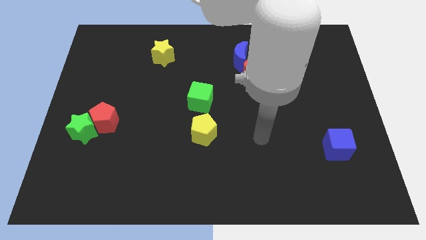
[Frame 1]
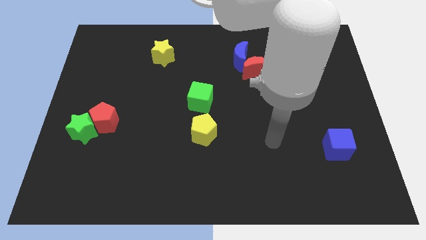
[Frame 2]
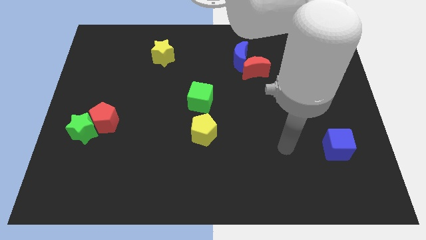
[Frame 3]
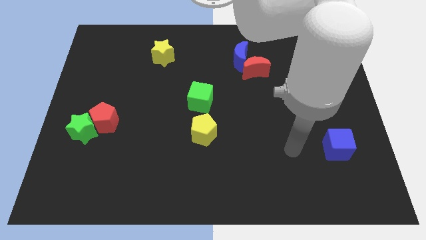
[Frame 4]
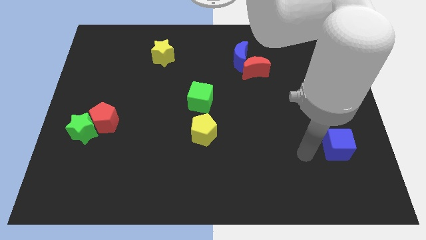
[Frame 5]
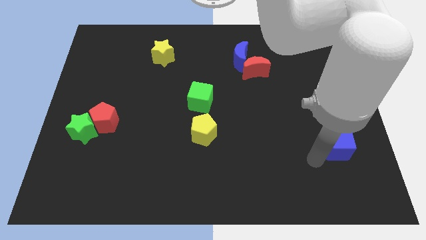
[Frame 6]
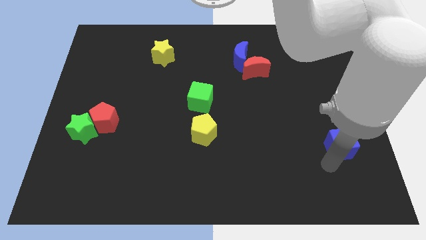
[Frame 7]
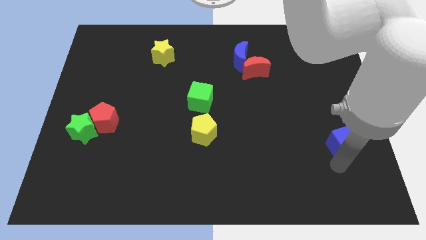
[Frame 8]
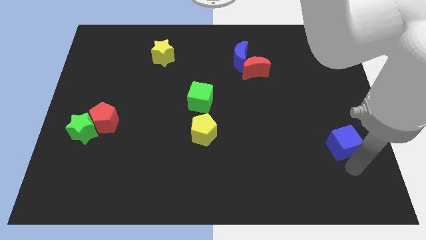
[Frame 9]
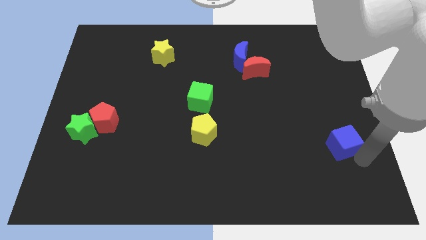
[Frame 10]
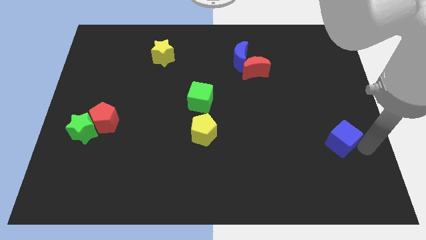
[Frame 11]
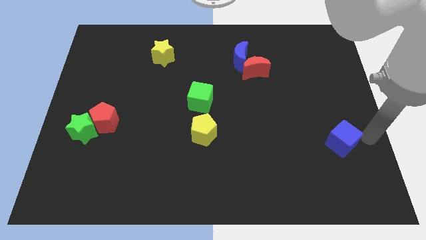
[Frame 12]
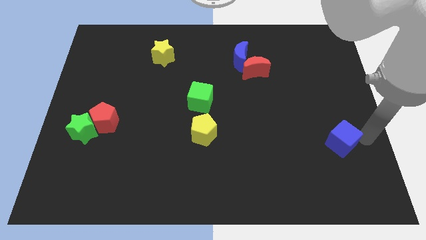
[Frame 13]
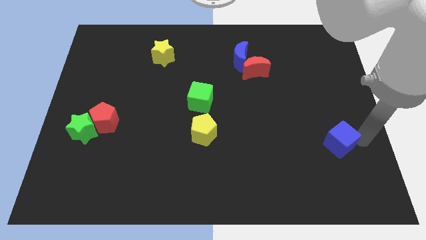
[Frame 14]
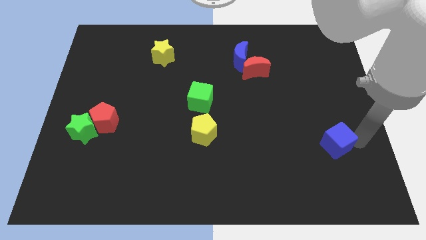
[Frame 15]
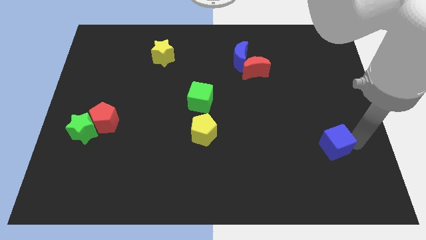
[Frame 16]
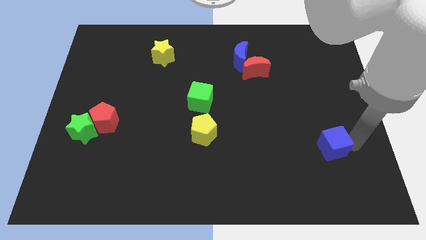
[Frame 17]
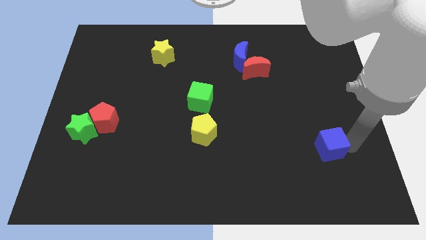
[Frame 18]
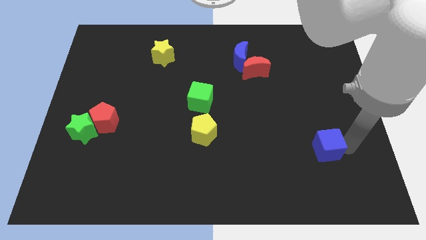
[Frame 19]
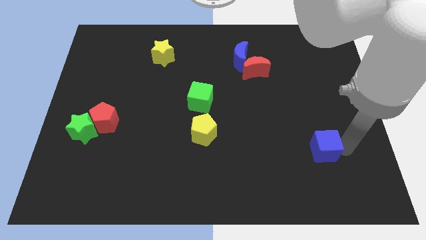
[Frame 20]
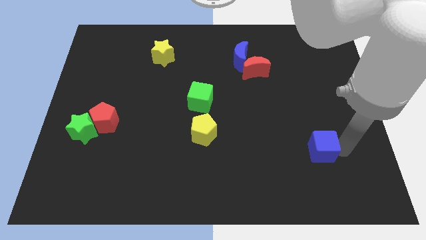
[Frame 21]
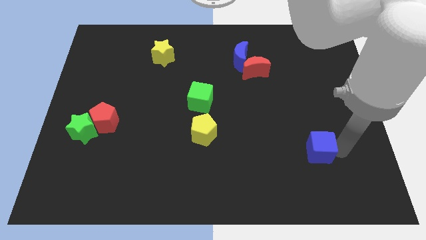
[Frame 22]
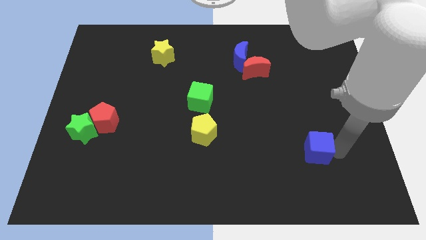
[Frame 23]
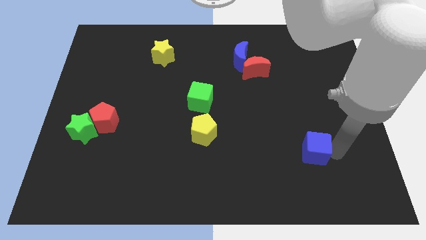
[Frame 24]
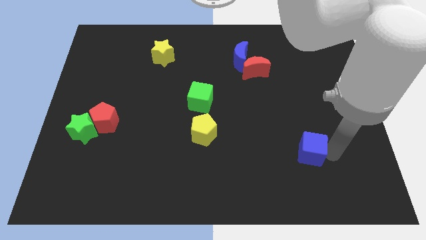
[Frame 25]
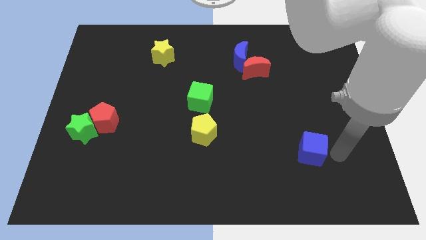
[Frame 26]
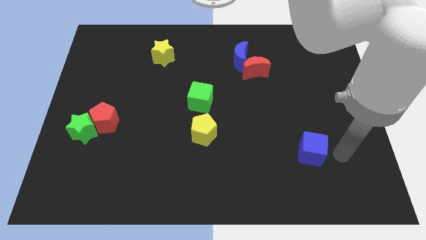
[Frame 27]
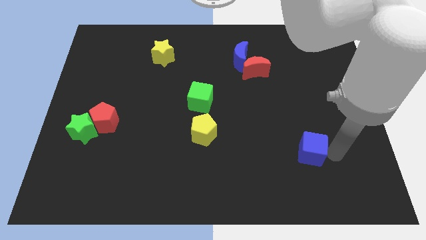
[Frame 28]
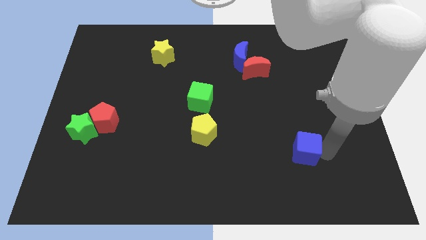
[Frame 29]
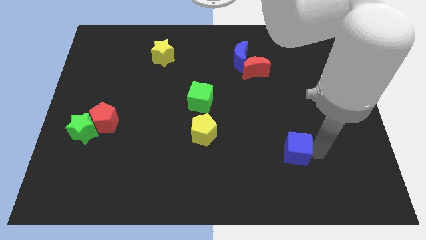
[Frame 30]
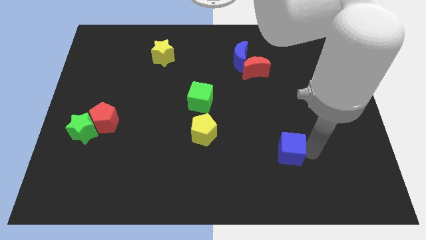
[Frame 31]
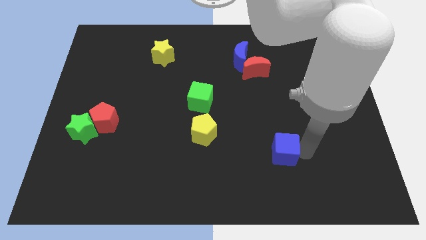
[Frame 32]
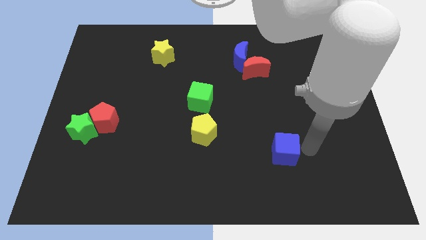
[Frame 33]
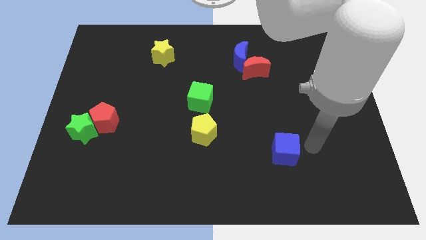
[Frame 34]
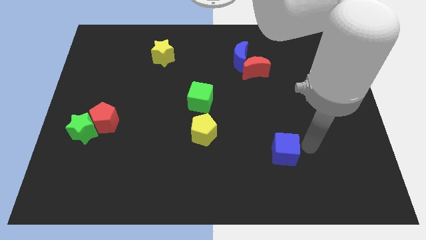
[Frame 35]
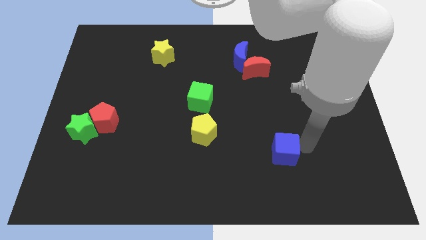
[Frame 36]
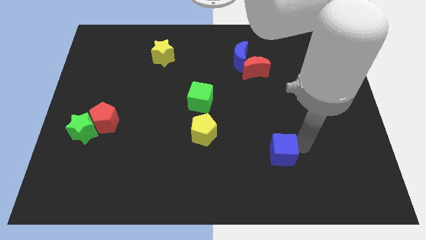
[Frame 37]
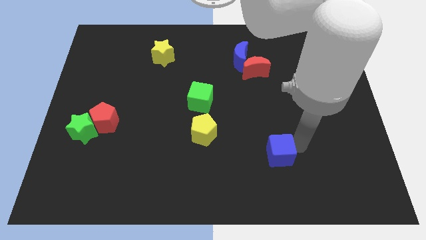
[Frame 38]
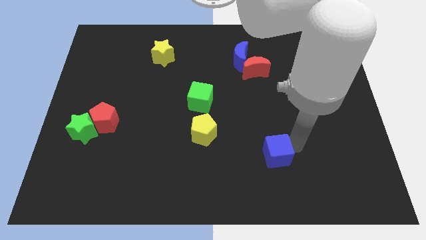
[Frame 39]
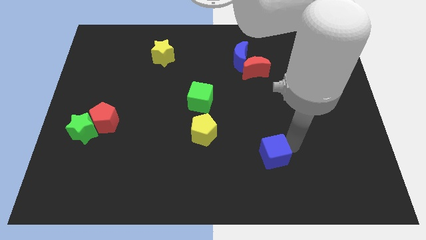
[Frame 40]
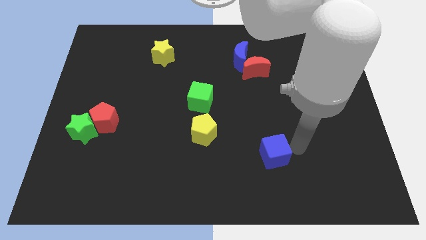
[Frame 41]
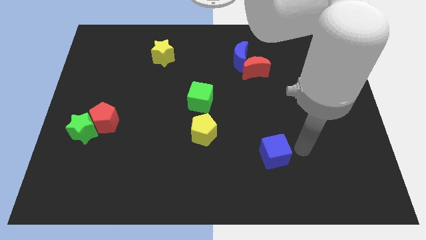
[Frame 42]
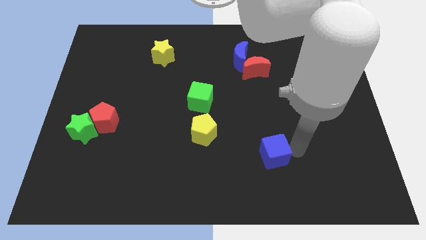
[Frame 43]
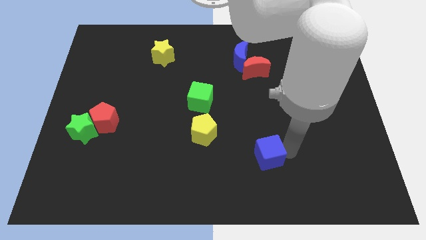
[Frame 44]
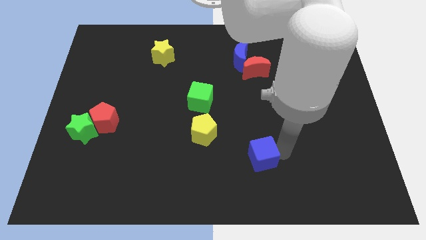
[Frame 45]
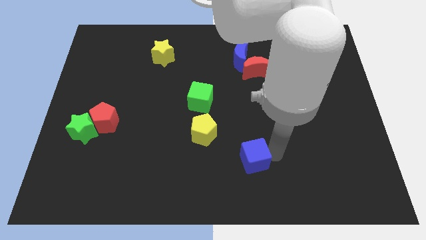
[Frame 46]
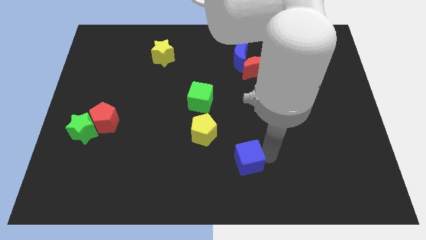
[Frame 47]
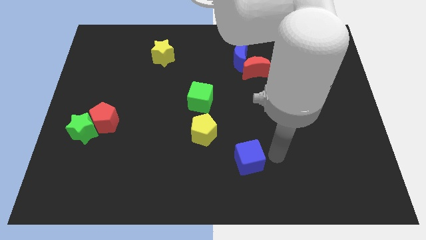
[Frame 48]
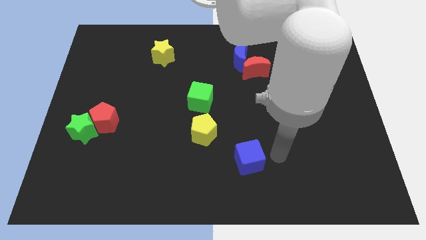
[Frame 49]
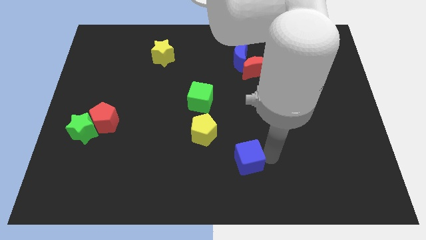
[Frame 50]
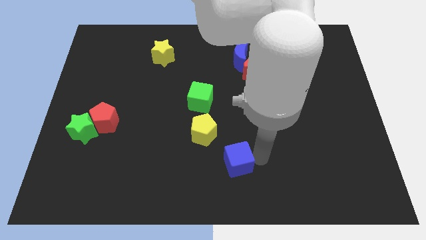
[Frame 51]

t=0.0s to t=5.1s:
slide the blue cube to the left

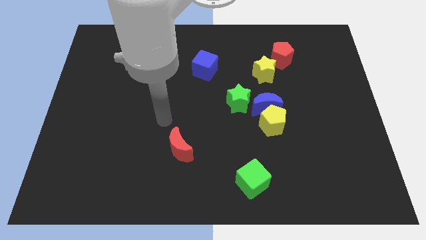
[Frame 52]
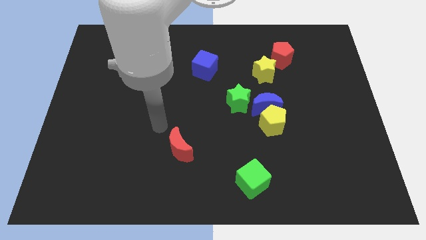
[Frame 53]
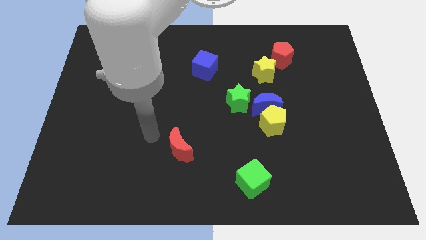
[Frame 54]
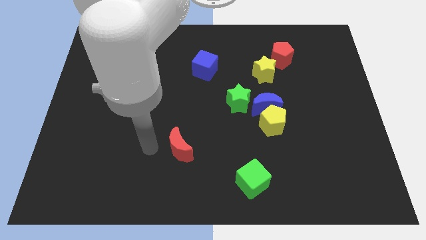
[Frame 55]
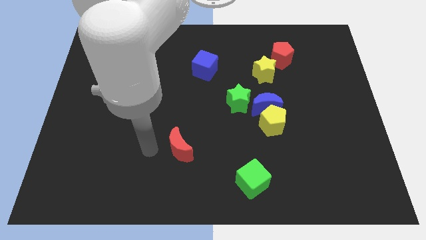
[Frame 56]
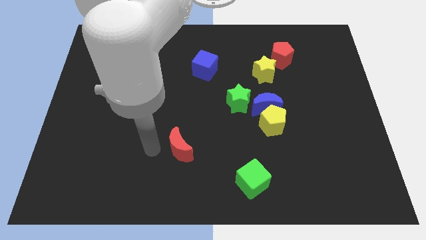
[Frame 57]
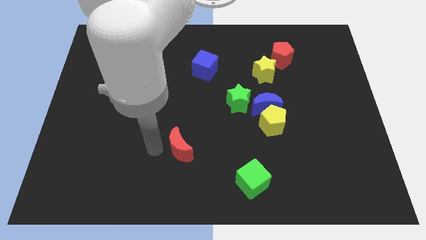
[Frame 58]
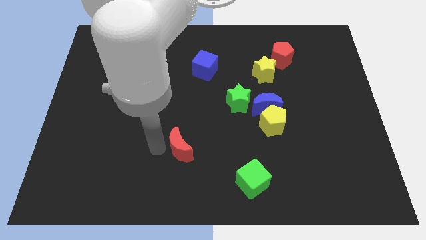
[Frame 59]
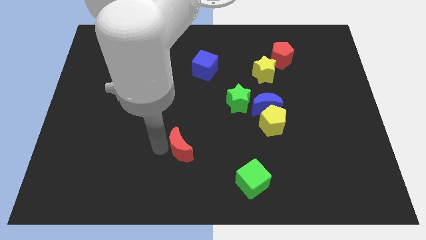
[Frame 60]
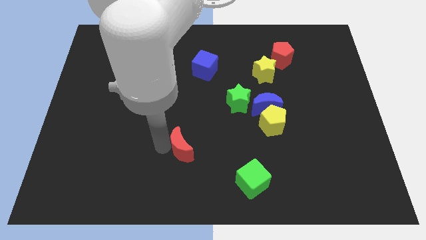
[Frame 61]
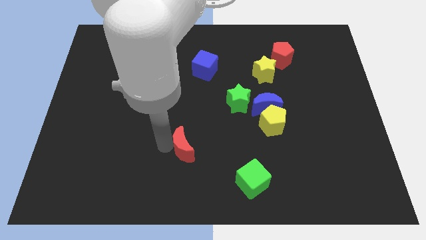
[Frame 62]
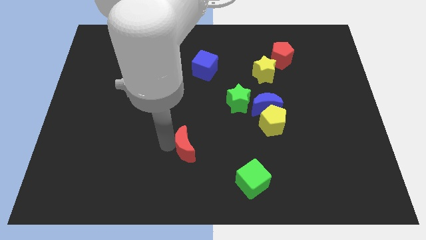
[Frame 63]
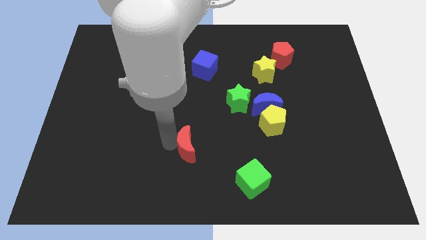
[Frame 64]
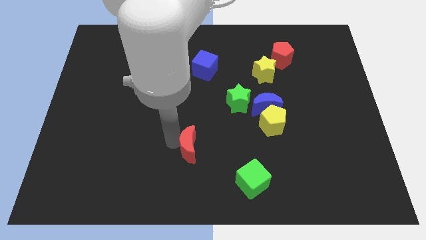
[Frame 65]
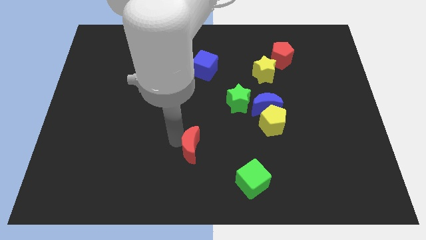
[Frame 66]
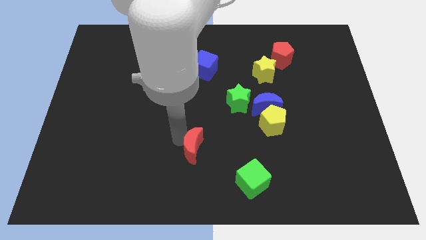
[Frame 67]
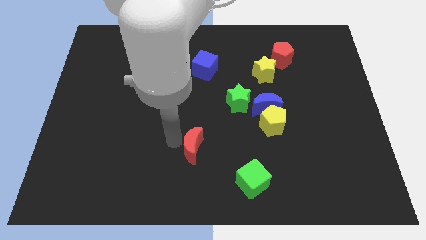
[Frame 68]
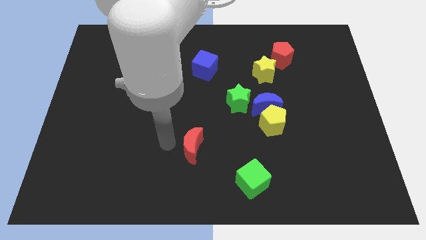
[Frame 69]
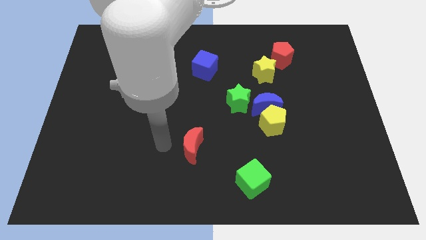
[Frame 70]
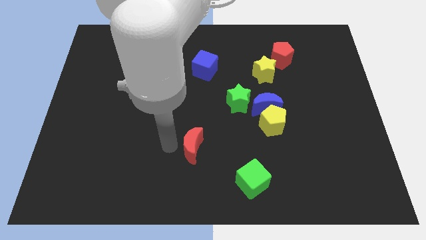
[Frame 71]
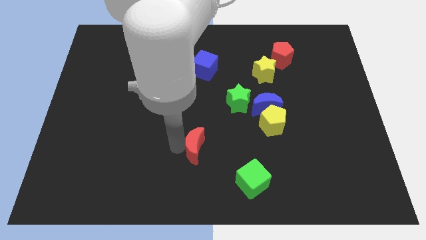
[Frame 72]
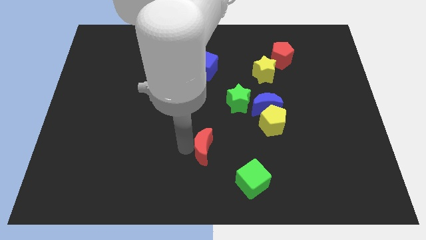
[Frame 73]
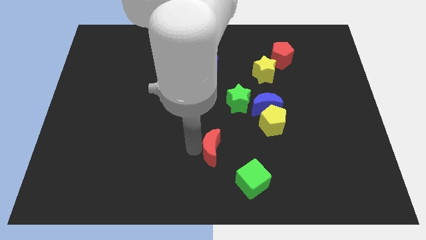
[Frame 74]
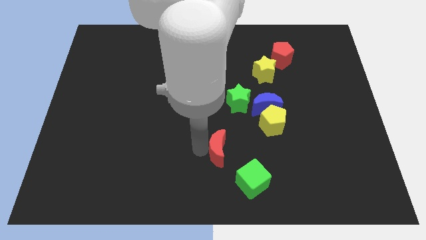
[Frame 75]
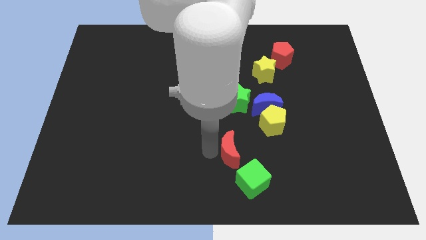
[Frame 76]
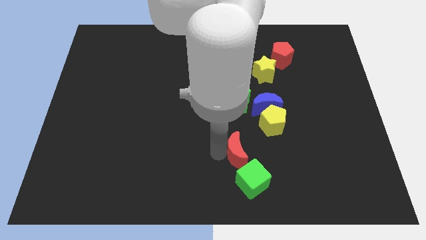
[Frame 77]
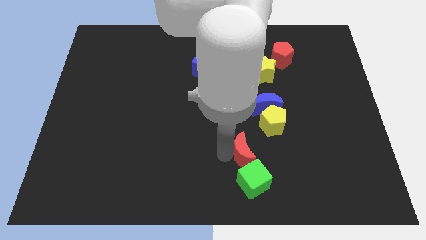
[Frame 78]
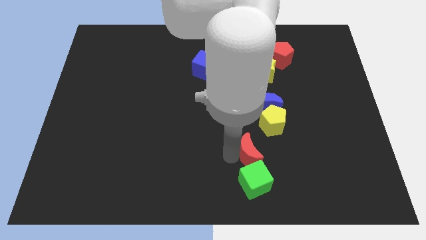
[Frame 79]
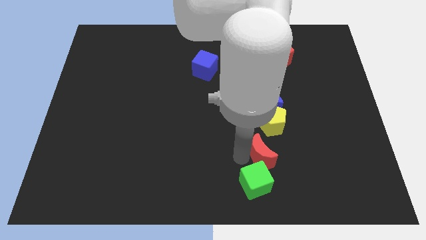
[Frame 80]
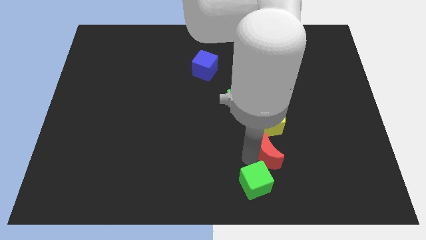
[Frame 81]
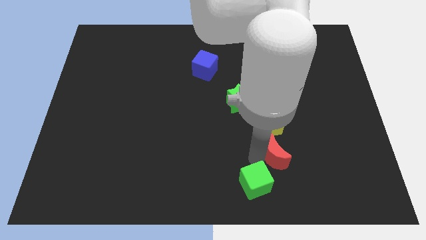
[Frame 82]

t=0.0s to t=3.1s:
push the red moon right

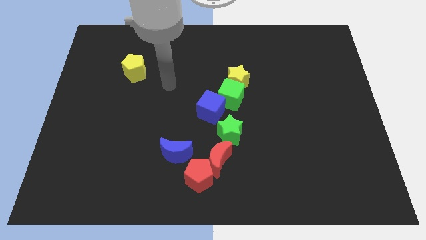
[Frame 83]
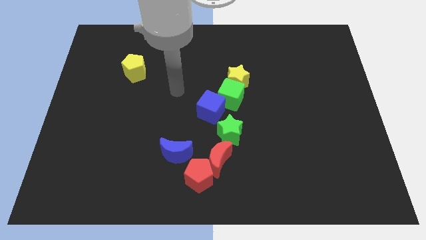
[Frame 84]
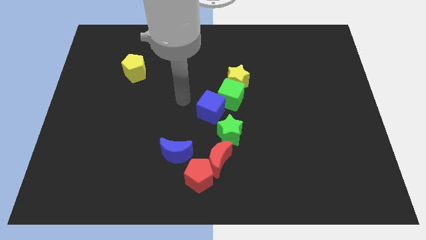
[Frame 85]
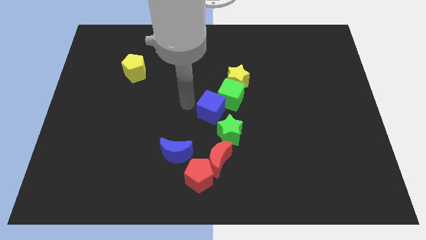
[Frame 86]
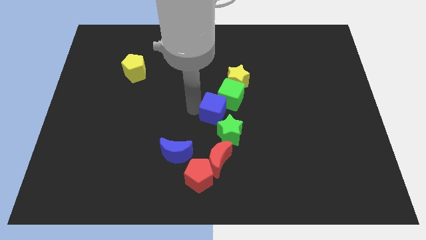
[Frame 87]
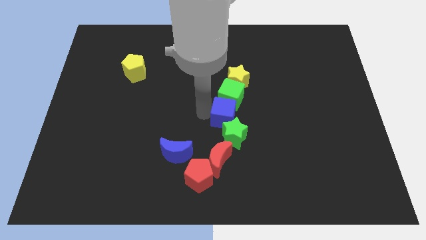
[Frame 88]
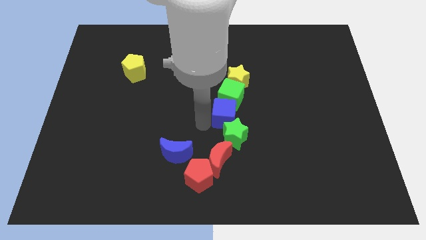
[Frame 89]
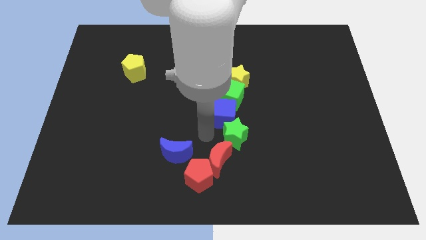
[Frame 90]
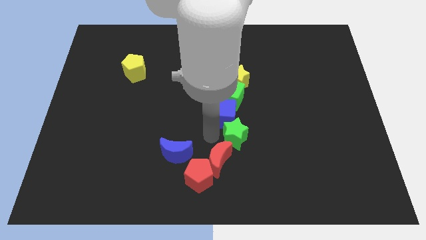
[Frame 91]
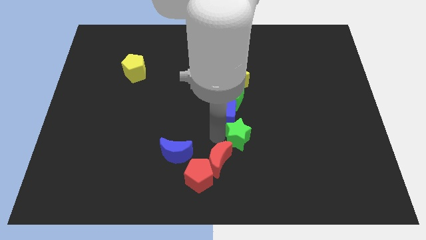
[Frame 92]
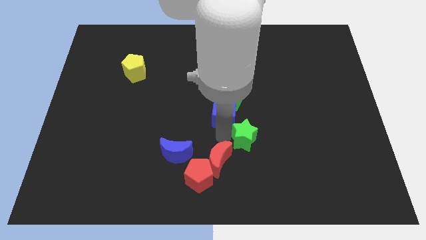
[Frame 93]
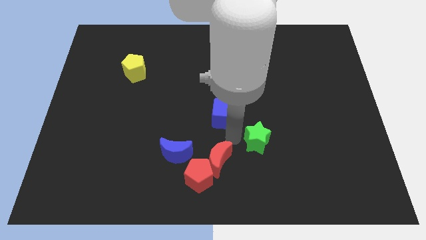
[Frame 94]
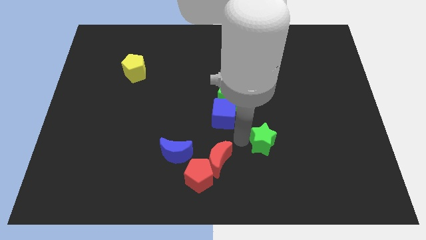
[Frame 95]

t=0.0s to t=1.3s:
slide the green star a little to the right
